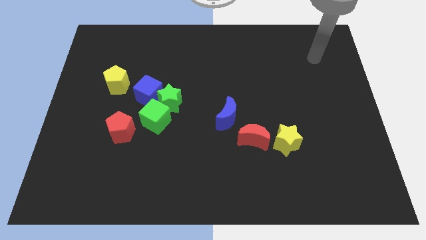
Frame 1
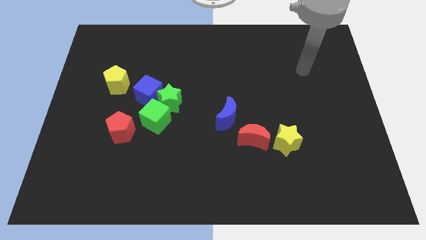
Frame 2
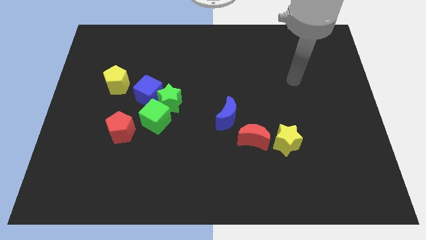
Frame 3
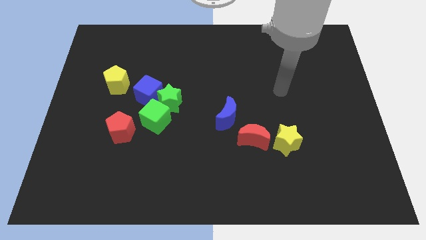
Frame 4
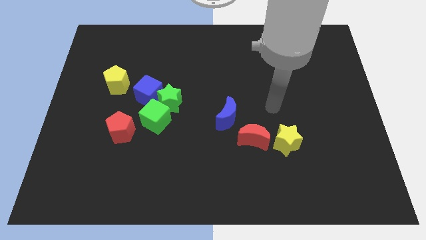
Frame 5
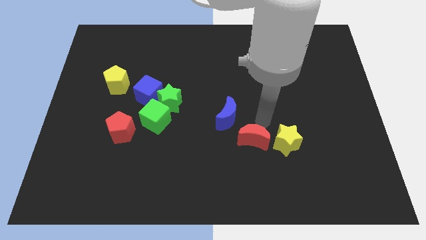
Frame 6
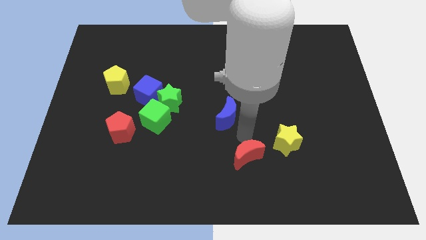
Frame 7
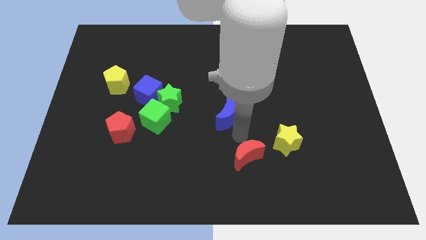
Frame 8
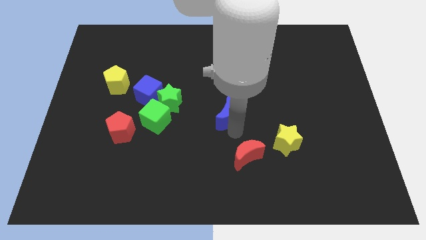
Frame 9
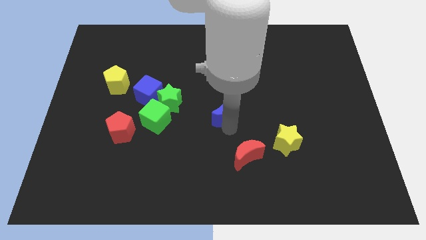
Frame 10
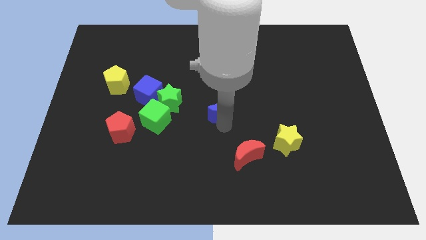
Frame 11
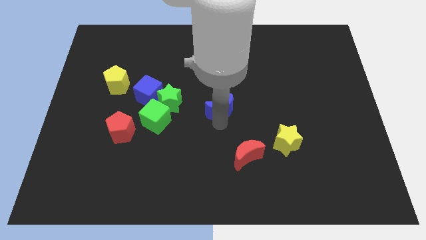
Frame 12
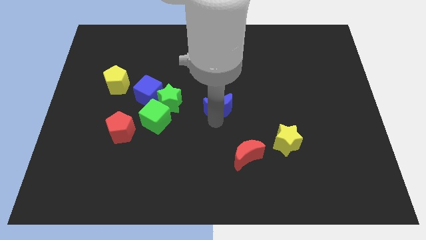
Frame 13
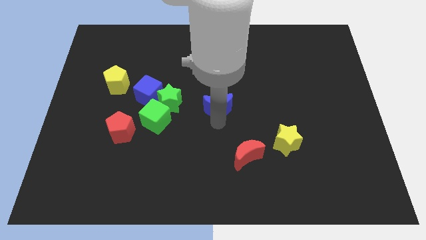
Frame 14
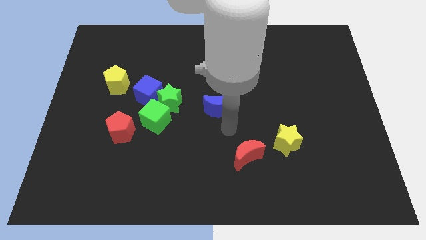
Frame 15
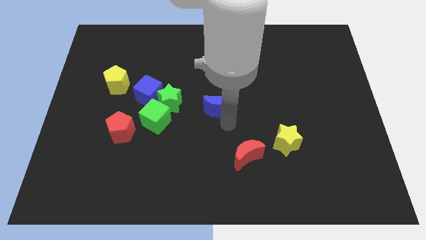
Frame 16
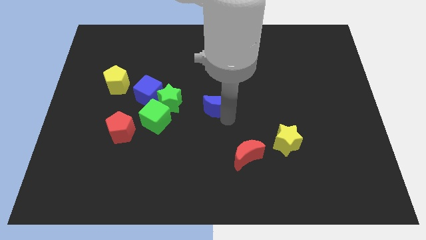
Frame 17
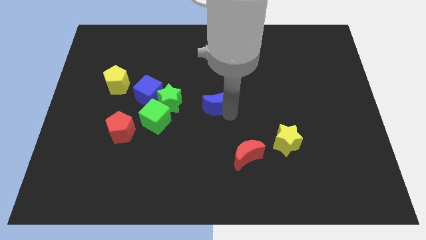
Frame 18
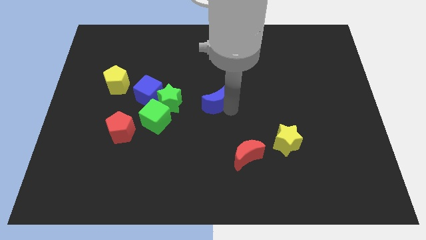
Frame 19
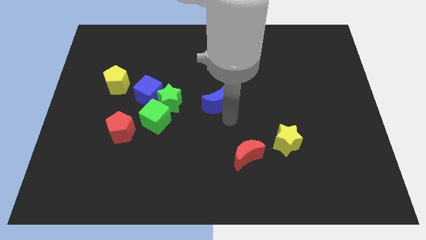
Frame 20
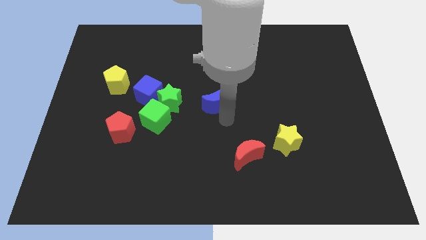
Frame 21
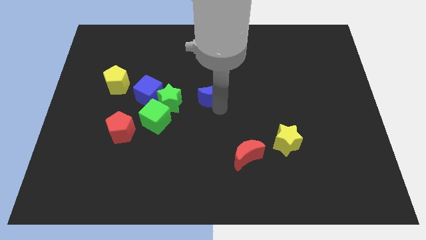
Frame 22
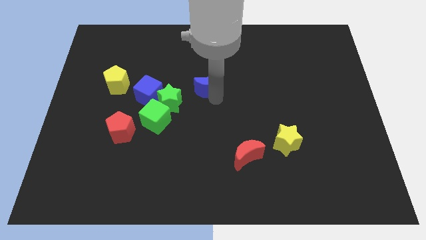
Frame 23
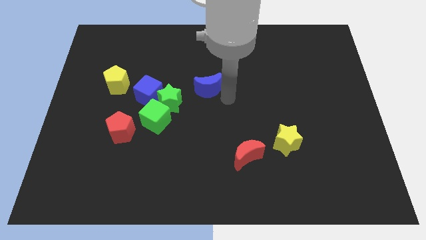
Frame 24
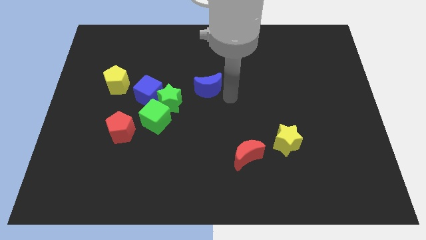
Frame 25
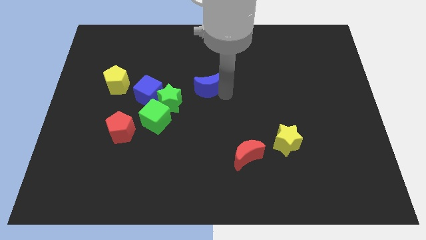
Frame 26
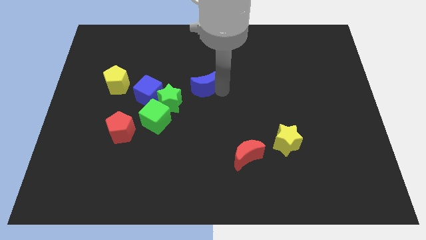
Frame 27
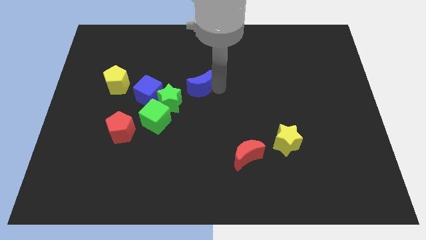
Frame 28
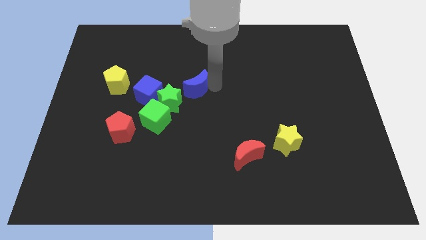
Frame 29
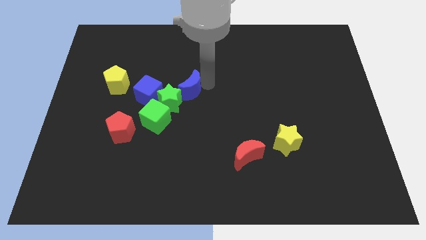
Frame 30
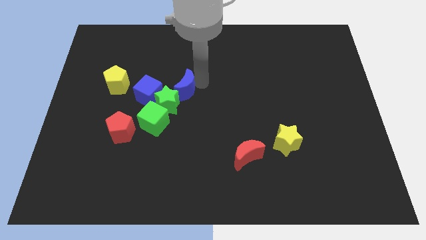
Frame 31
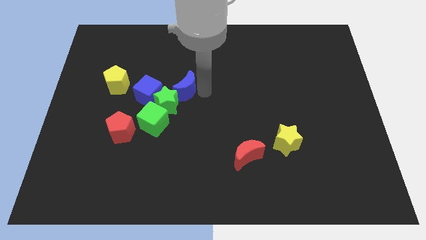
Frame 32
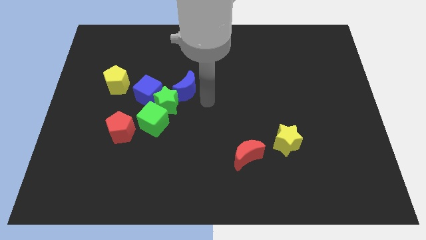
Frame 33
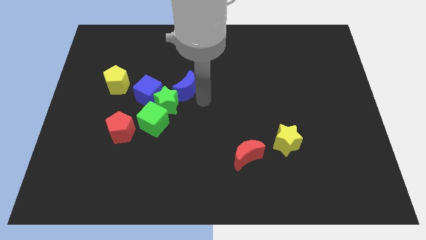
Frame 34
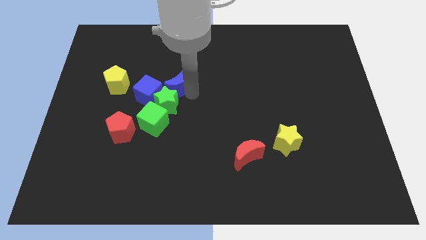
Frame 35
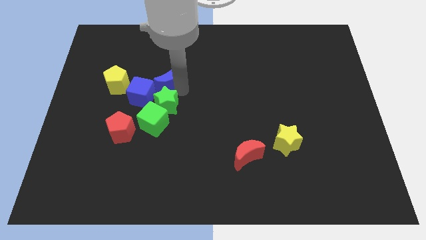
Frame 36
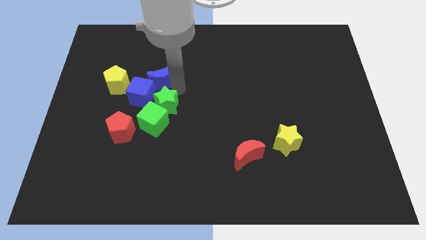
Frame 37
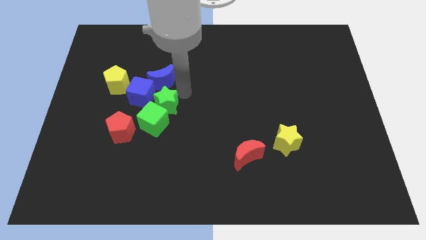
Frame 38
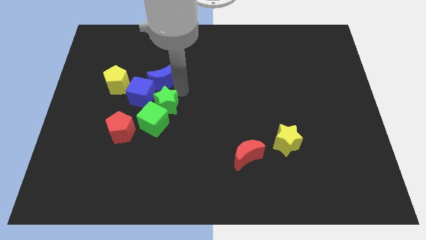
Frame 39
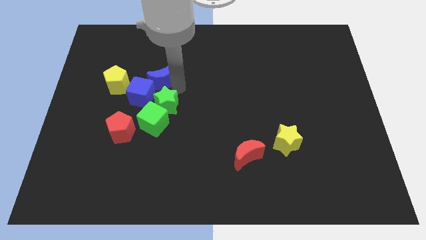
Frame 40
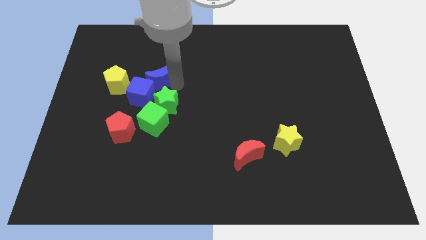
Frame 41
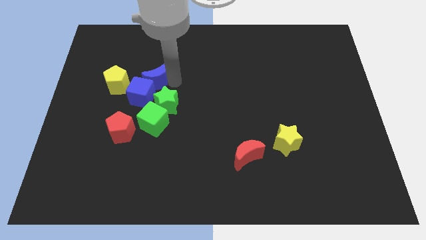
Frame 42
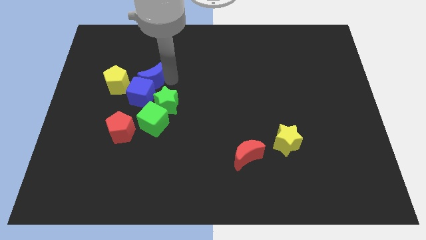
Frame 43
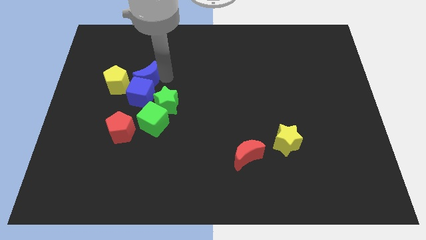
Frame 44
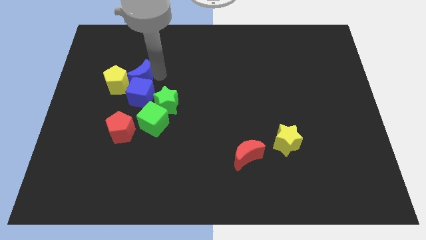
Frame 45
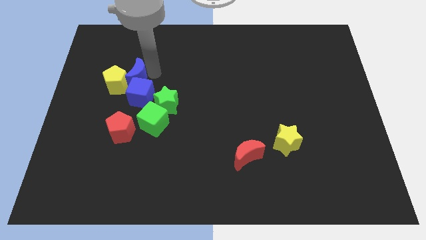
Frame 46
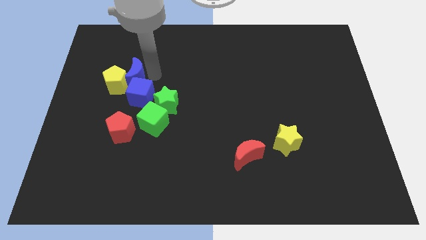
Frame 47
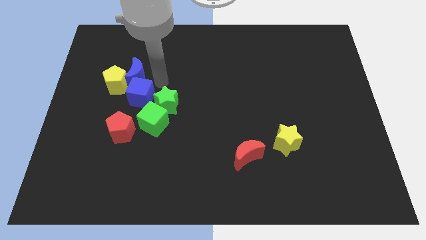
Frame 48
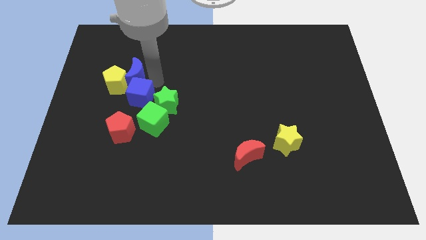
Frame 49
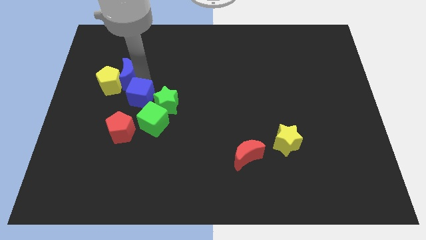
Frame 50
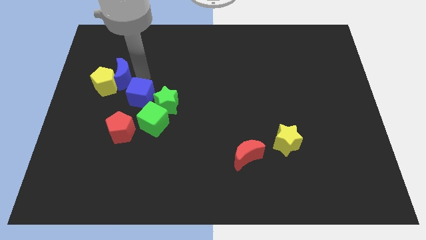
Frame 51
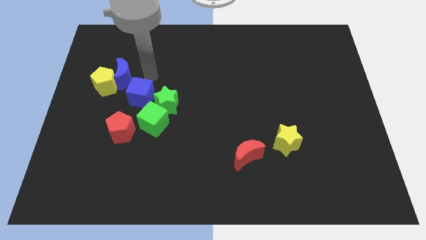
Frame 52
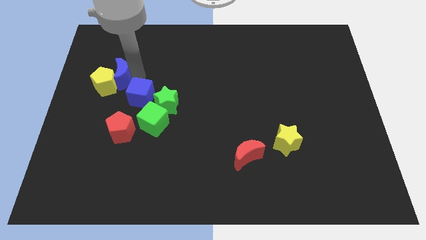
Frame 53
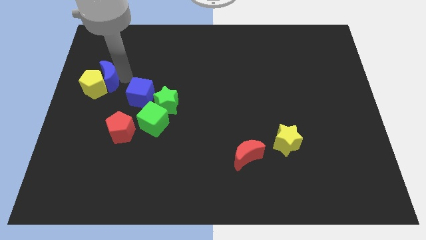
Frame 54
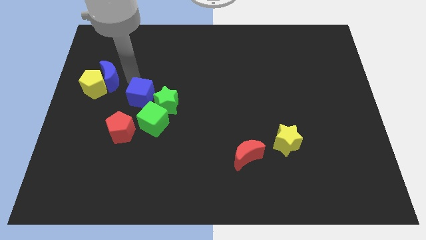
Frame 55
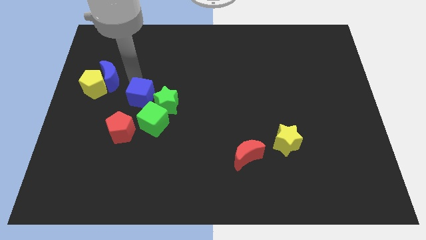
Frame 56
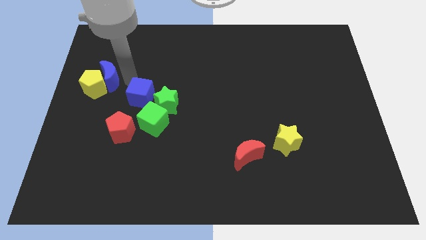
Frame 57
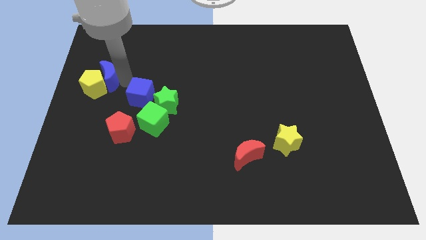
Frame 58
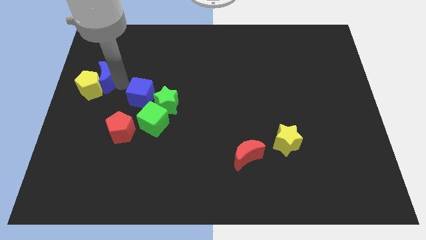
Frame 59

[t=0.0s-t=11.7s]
move the blue moon to the center left

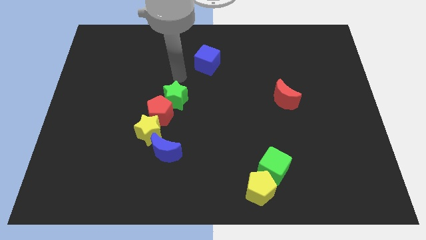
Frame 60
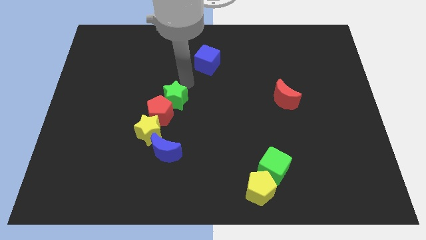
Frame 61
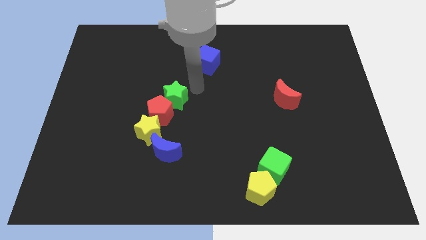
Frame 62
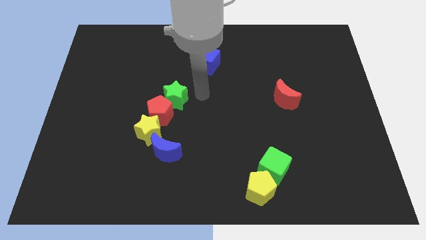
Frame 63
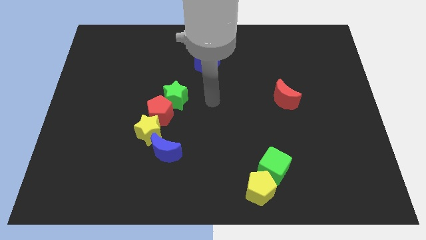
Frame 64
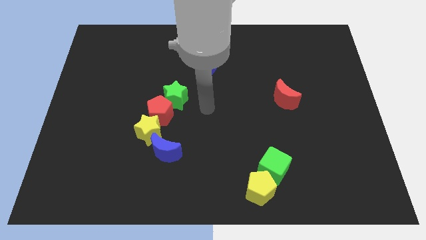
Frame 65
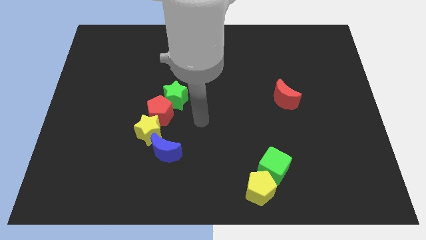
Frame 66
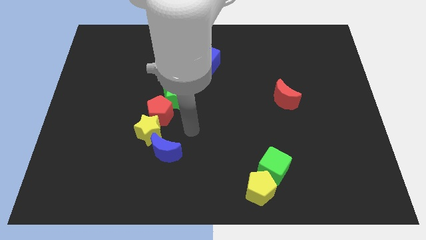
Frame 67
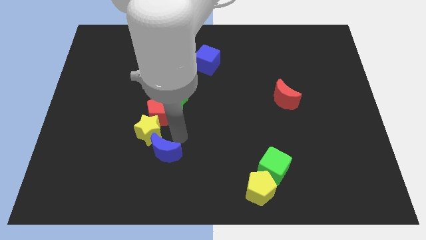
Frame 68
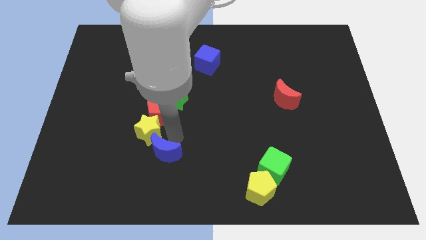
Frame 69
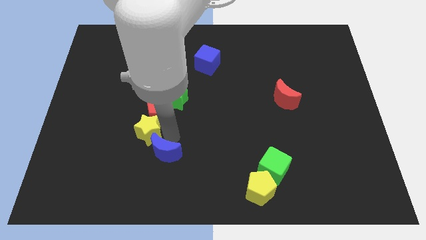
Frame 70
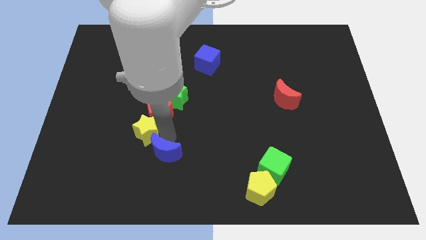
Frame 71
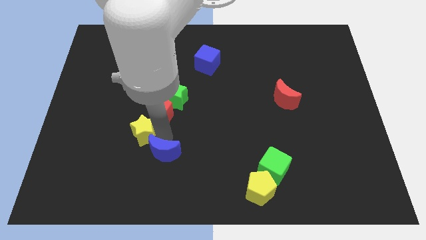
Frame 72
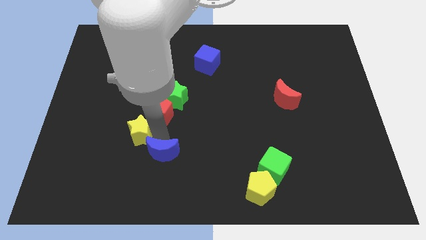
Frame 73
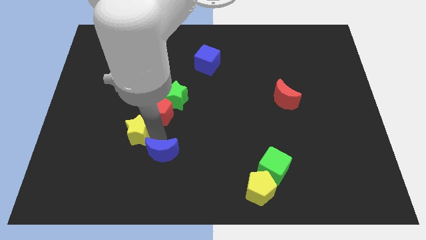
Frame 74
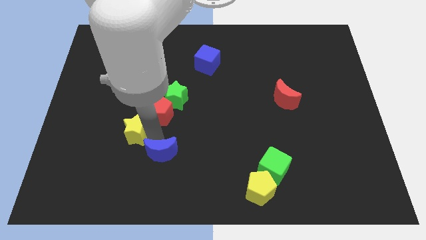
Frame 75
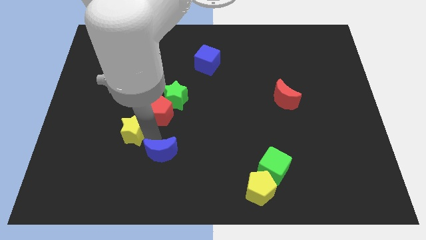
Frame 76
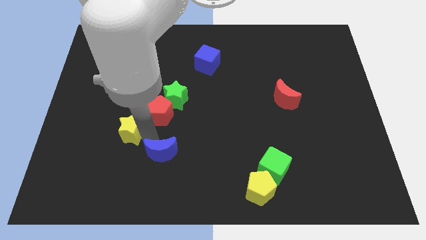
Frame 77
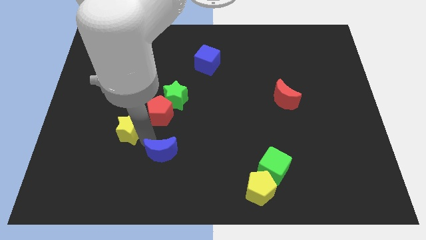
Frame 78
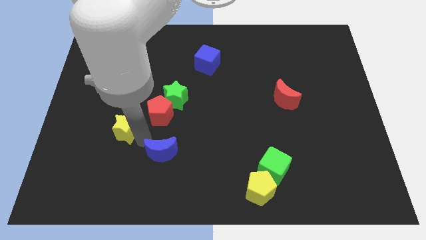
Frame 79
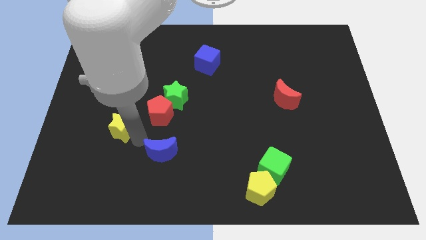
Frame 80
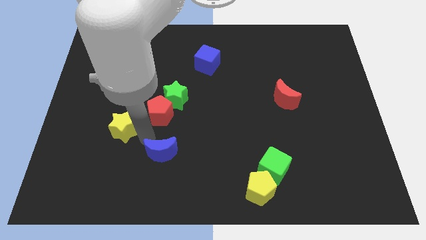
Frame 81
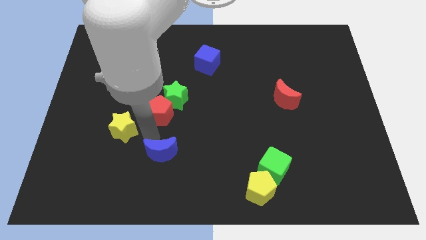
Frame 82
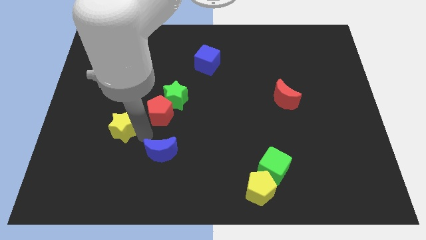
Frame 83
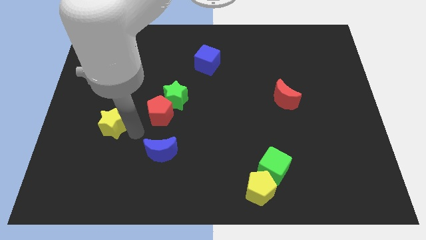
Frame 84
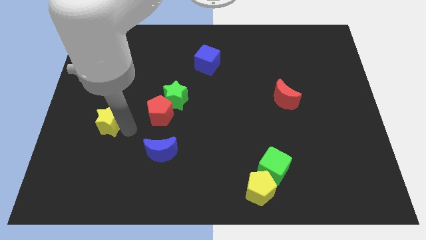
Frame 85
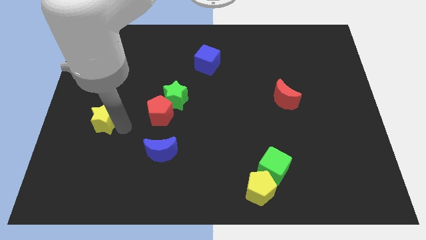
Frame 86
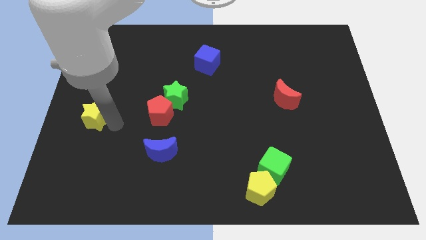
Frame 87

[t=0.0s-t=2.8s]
push the yellow star to the left side of the board
